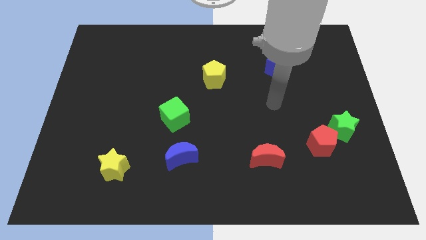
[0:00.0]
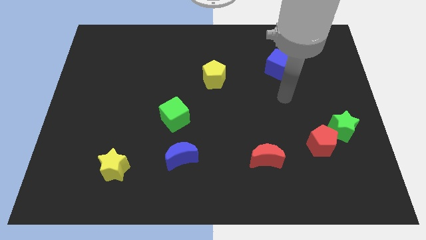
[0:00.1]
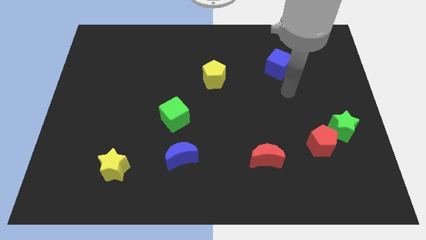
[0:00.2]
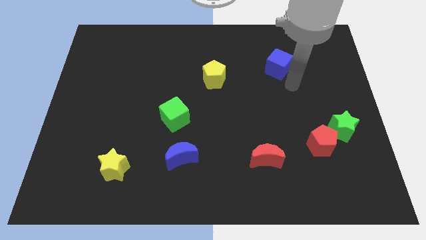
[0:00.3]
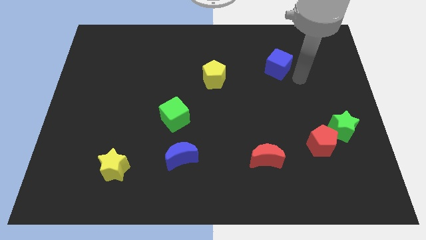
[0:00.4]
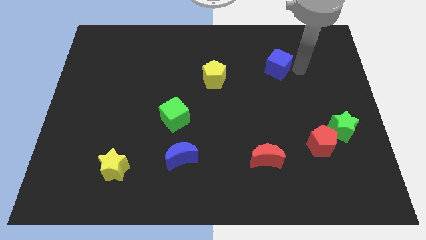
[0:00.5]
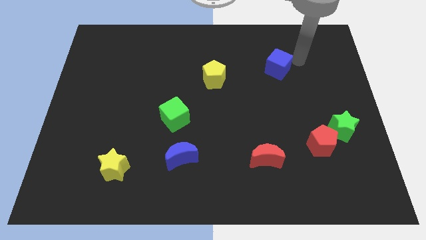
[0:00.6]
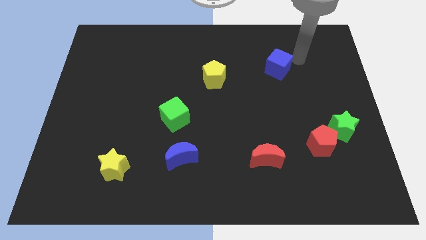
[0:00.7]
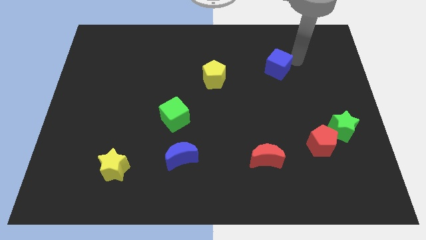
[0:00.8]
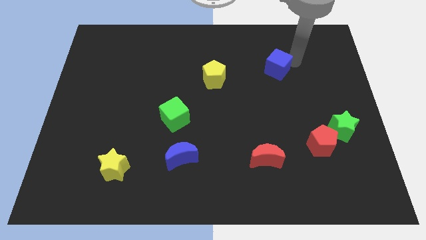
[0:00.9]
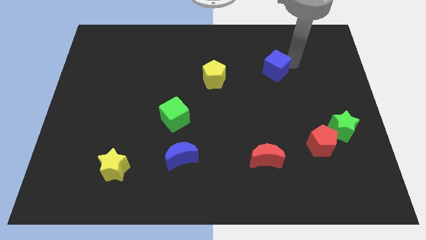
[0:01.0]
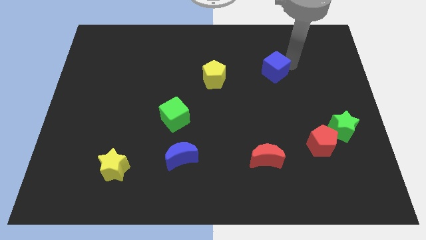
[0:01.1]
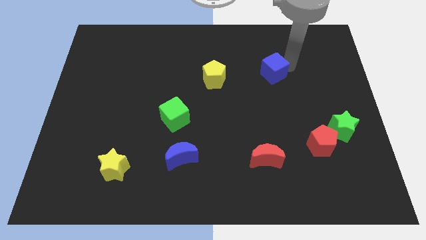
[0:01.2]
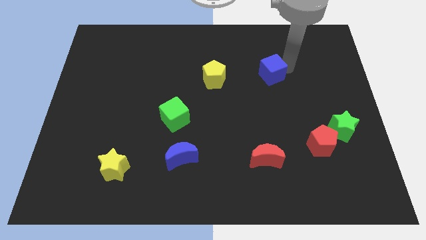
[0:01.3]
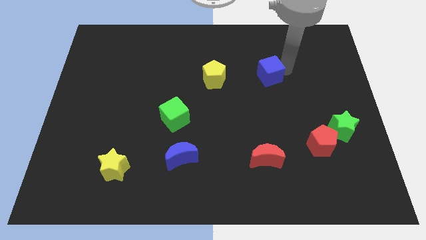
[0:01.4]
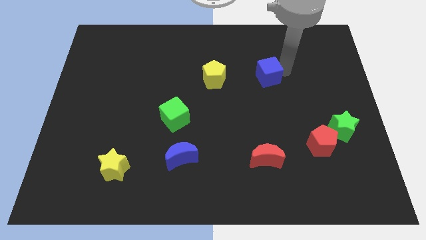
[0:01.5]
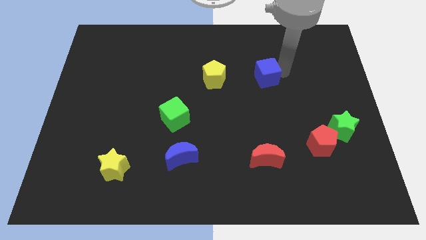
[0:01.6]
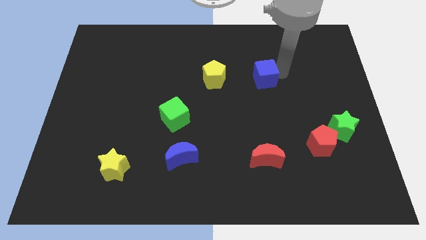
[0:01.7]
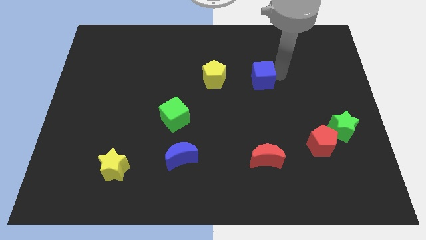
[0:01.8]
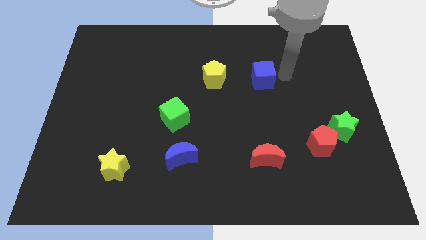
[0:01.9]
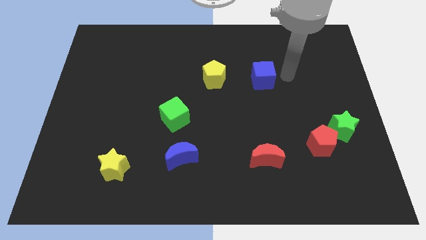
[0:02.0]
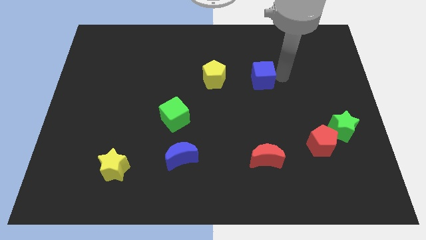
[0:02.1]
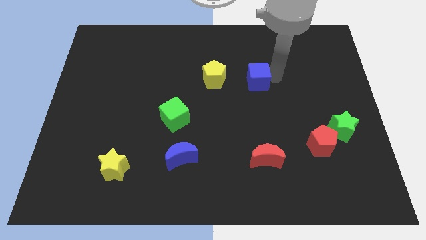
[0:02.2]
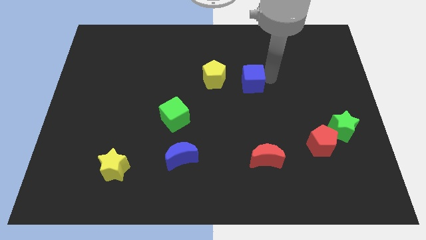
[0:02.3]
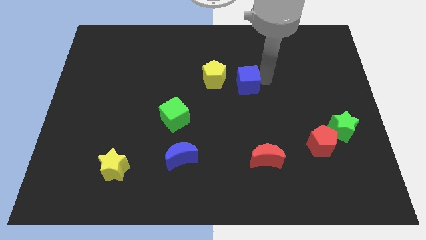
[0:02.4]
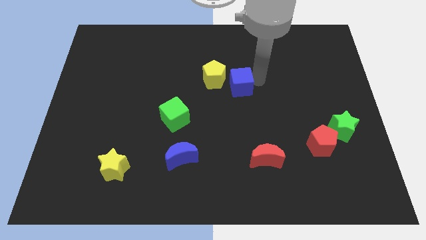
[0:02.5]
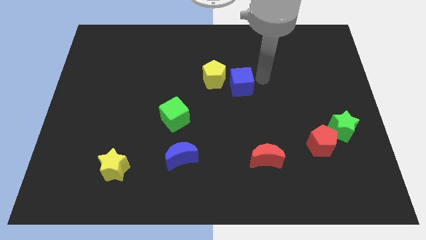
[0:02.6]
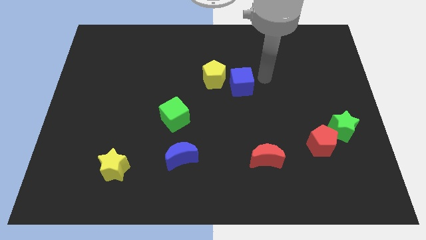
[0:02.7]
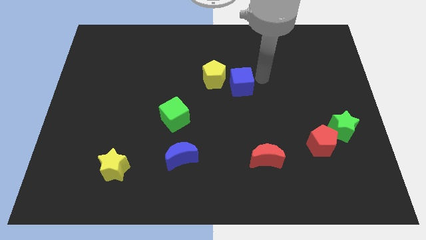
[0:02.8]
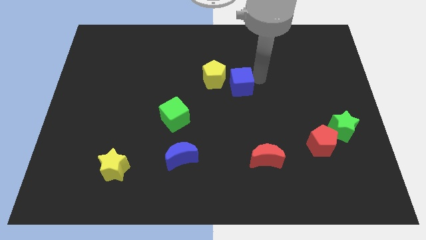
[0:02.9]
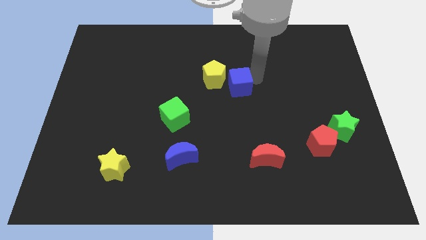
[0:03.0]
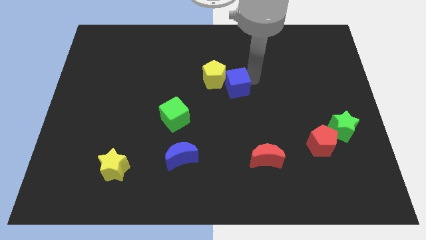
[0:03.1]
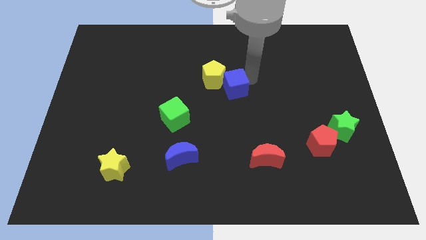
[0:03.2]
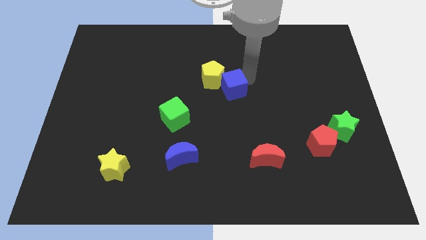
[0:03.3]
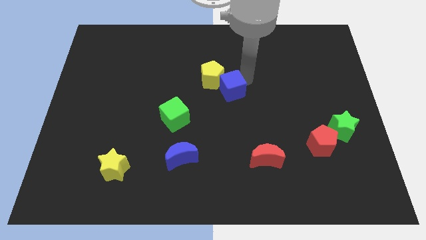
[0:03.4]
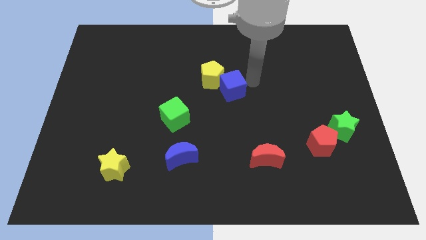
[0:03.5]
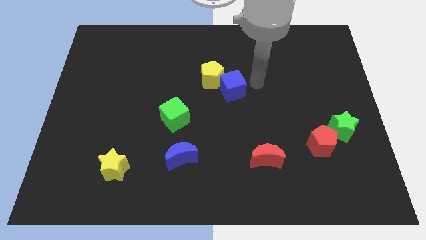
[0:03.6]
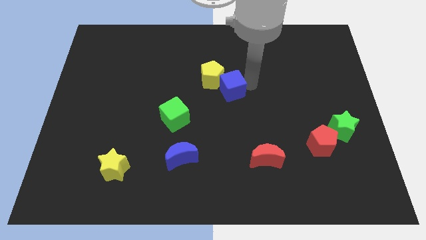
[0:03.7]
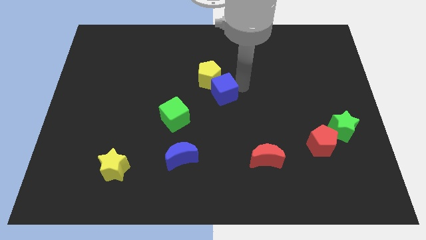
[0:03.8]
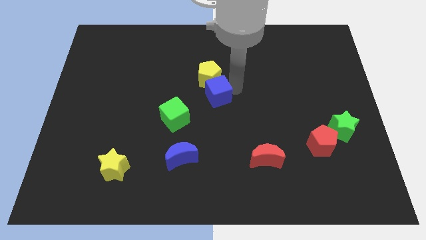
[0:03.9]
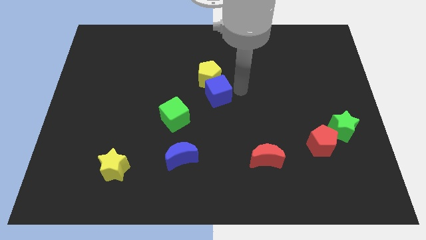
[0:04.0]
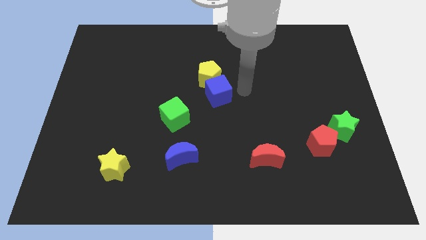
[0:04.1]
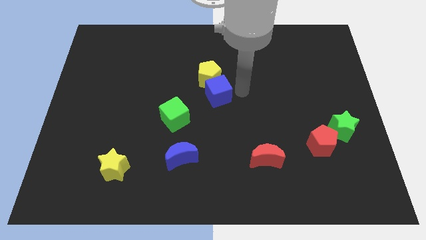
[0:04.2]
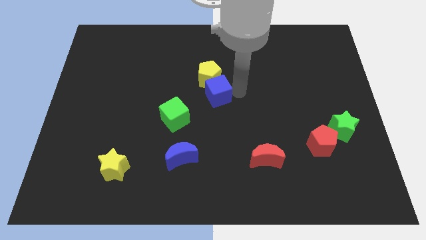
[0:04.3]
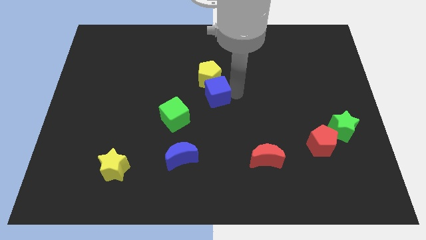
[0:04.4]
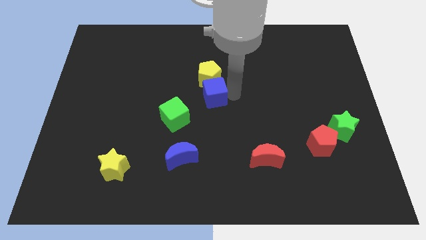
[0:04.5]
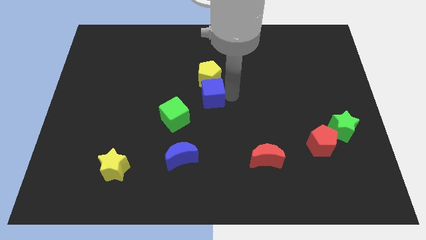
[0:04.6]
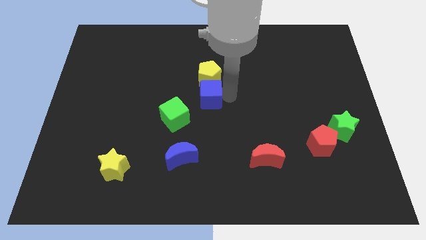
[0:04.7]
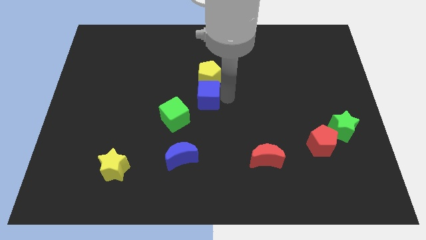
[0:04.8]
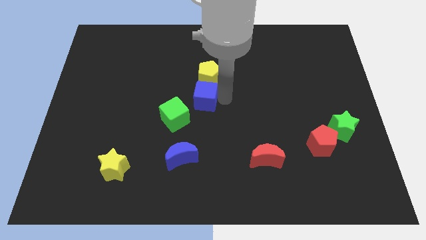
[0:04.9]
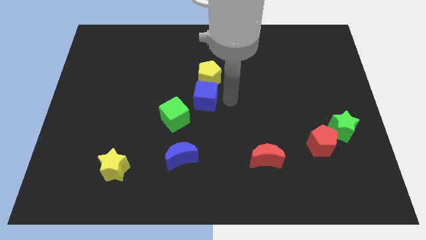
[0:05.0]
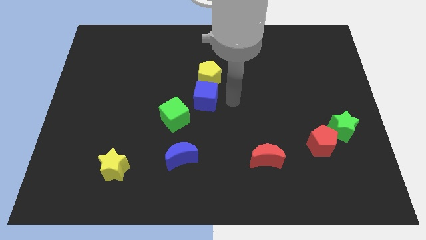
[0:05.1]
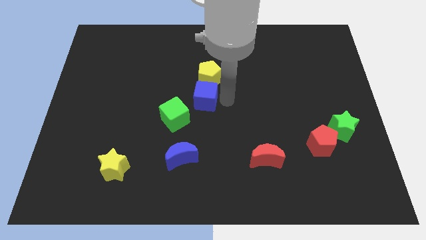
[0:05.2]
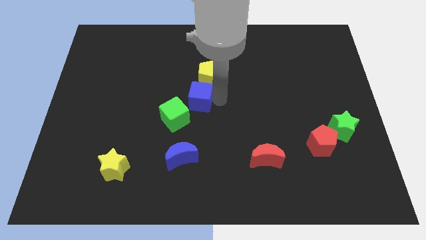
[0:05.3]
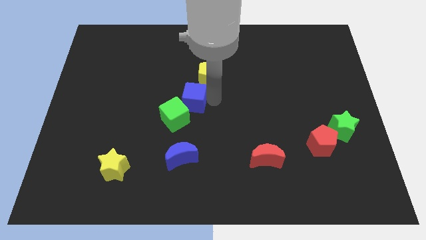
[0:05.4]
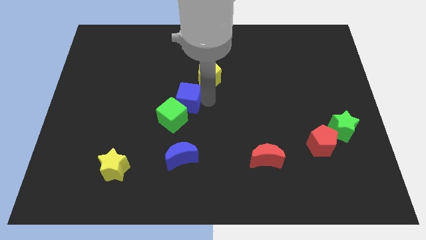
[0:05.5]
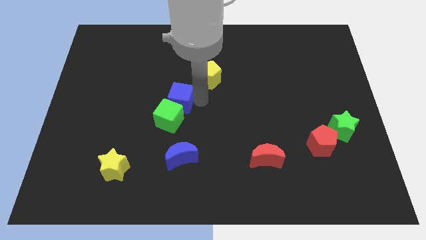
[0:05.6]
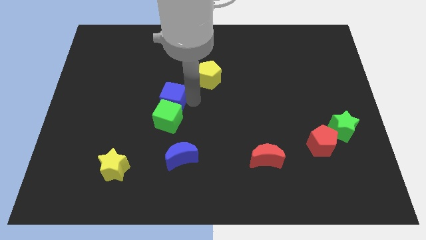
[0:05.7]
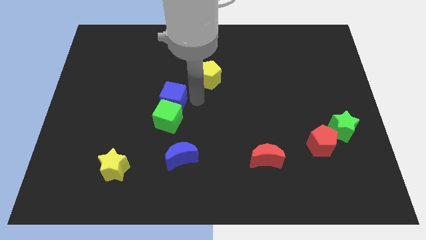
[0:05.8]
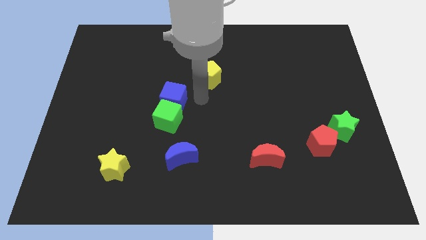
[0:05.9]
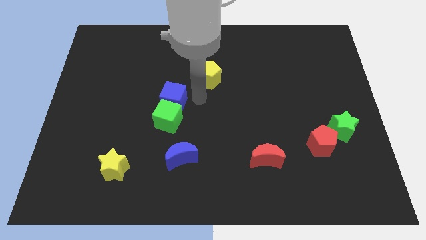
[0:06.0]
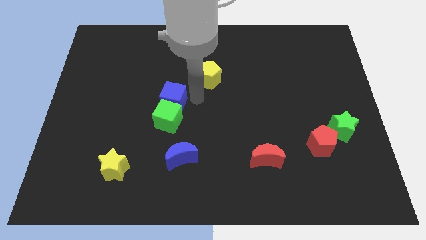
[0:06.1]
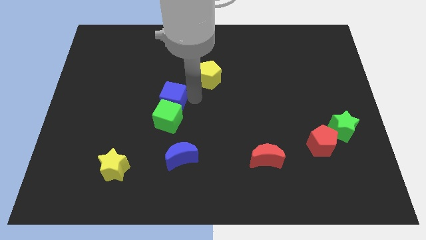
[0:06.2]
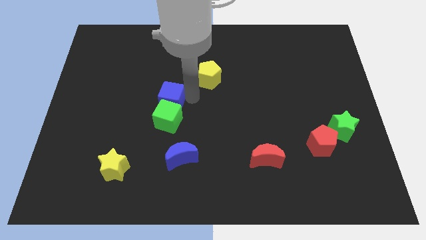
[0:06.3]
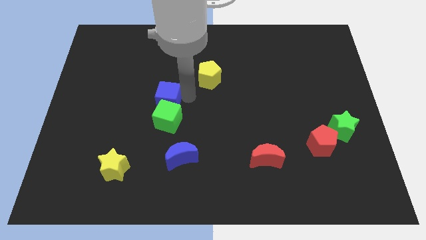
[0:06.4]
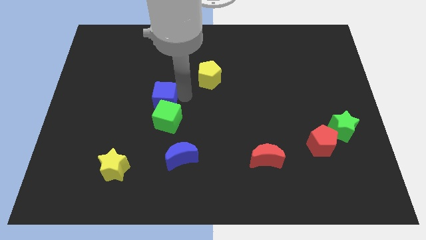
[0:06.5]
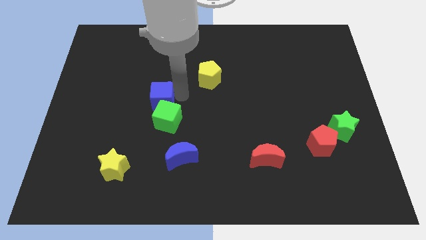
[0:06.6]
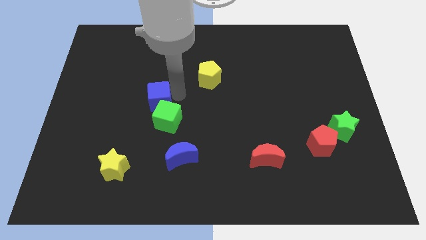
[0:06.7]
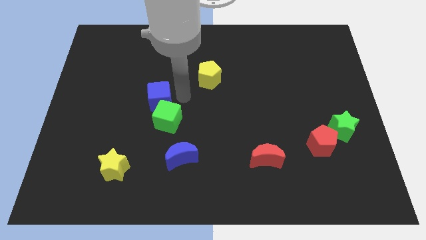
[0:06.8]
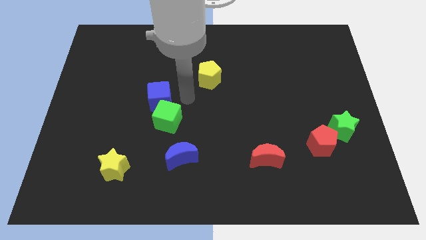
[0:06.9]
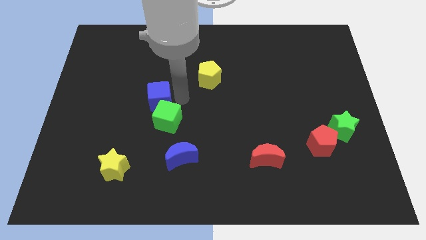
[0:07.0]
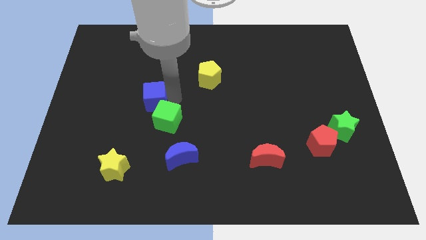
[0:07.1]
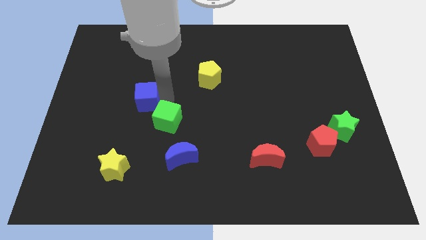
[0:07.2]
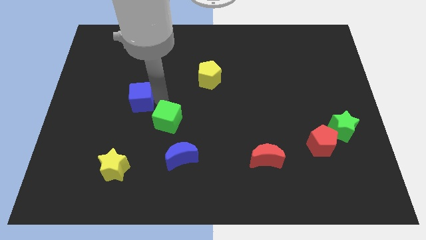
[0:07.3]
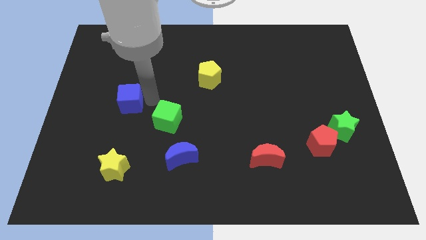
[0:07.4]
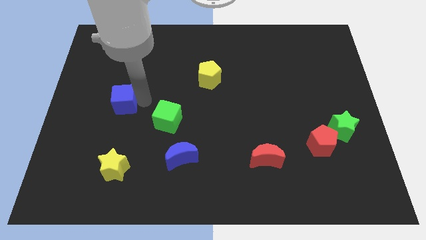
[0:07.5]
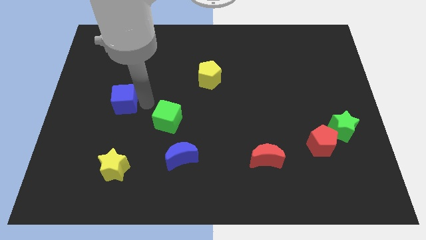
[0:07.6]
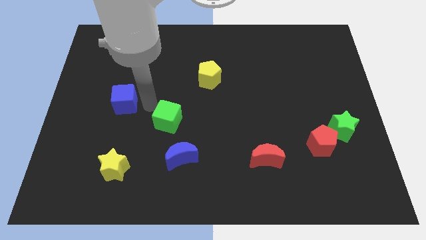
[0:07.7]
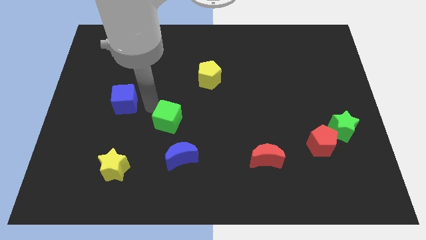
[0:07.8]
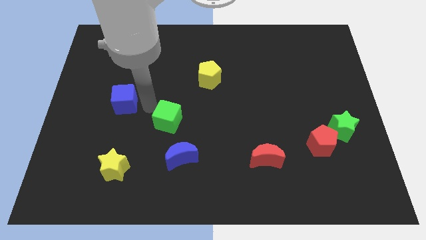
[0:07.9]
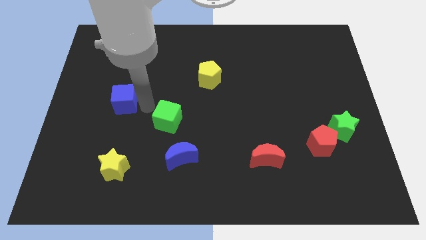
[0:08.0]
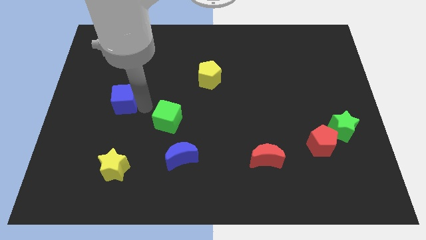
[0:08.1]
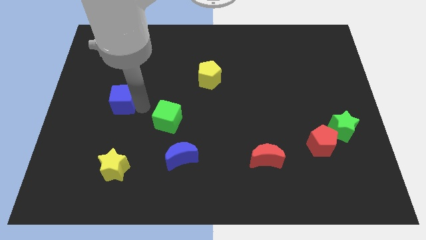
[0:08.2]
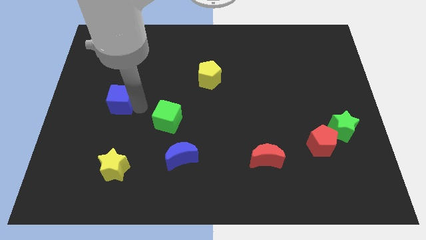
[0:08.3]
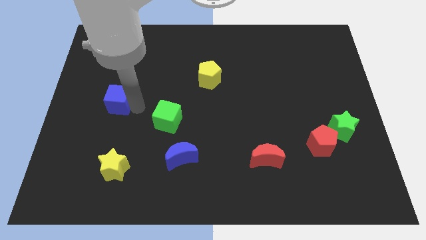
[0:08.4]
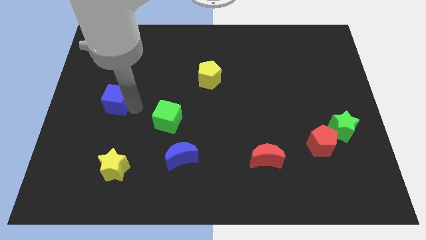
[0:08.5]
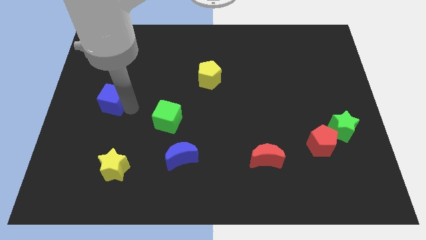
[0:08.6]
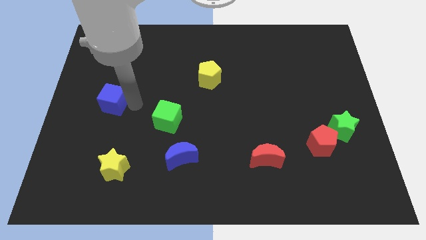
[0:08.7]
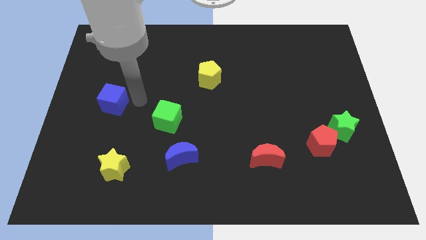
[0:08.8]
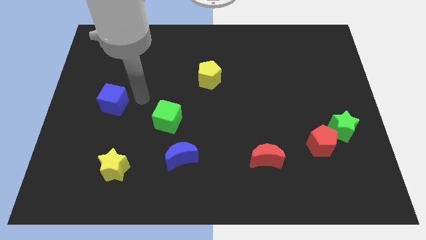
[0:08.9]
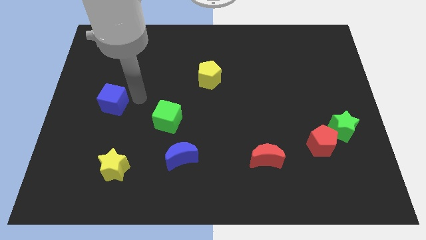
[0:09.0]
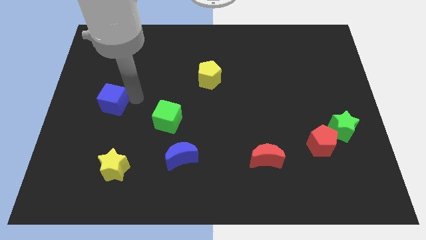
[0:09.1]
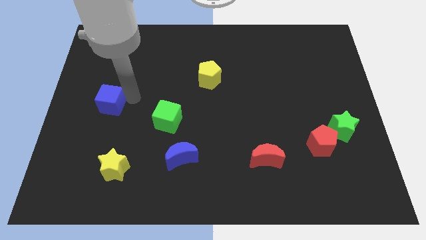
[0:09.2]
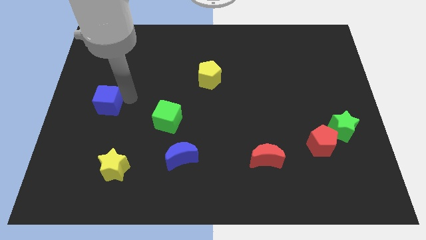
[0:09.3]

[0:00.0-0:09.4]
slide the blue cube to the left side
